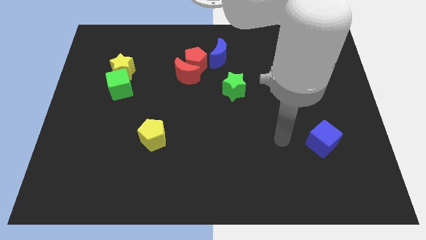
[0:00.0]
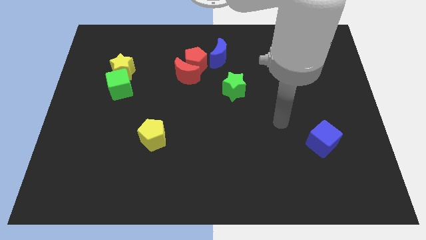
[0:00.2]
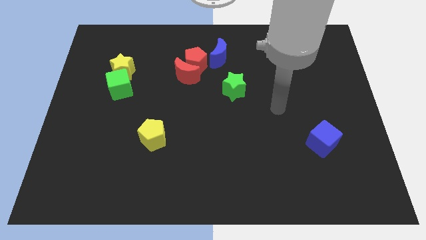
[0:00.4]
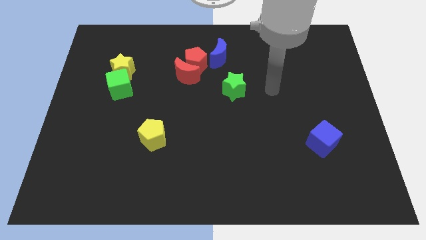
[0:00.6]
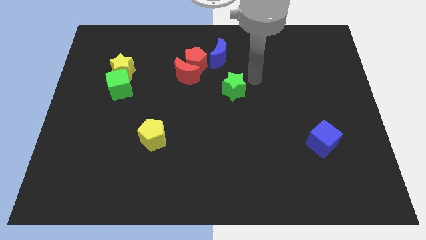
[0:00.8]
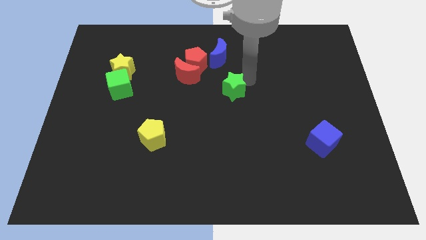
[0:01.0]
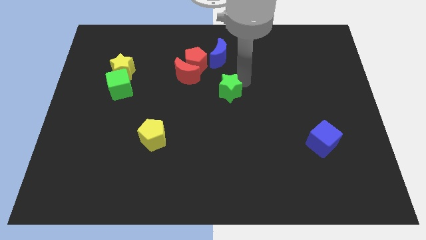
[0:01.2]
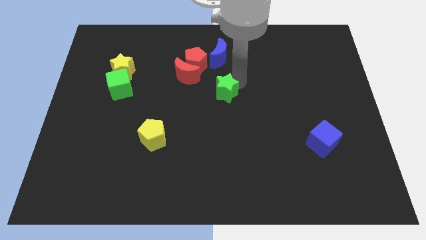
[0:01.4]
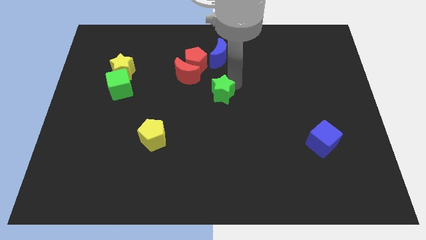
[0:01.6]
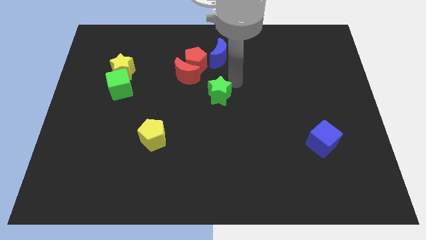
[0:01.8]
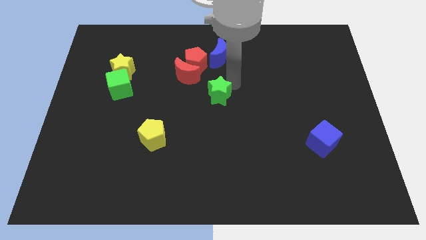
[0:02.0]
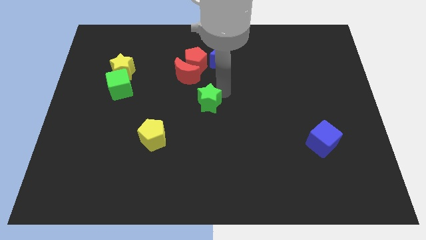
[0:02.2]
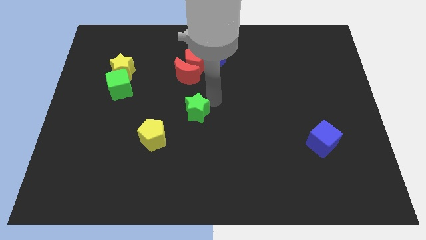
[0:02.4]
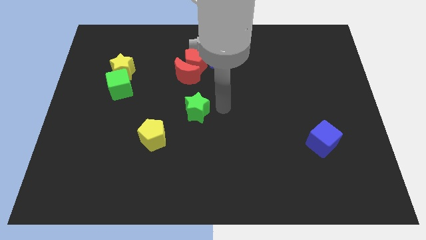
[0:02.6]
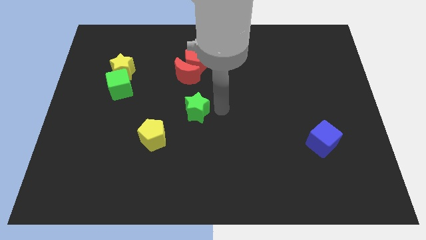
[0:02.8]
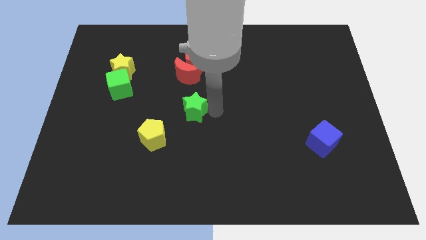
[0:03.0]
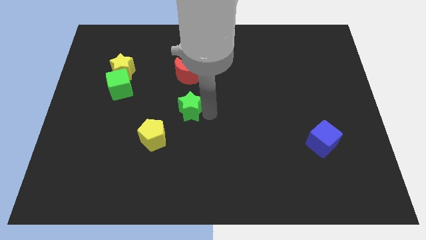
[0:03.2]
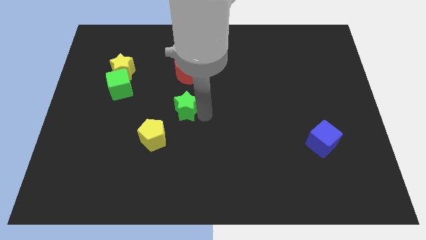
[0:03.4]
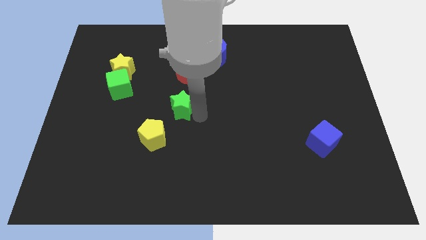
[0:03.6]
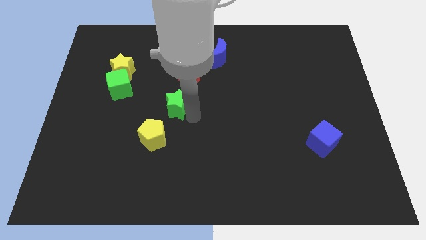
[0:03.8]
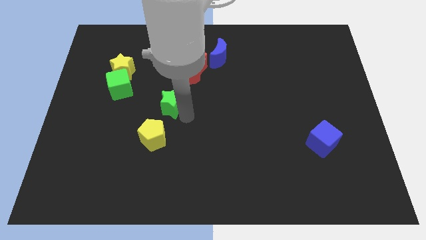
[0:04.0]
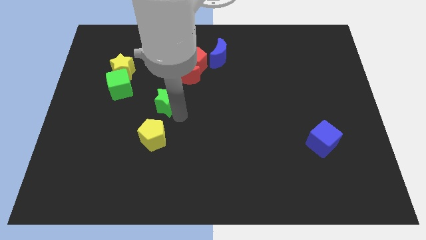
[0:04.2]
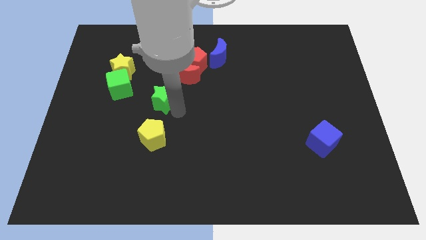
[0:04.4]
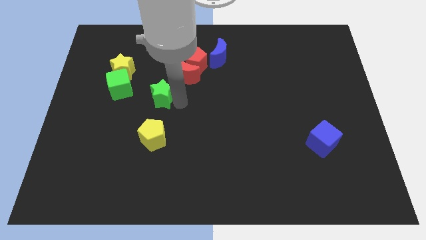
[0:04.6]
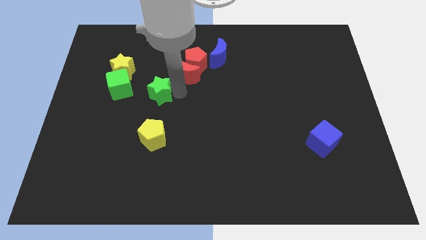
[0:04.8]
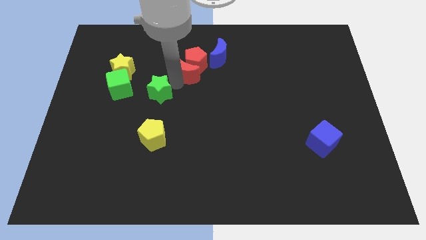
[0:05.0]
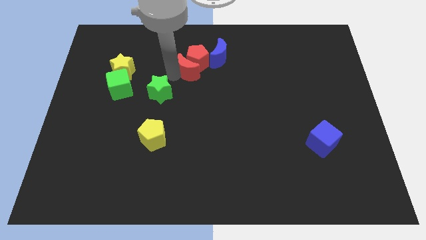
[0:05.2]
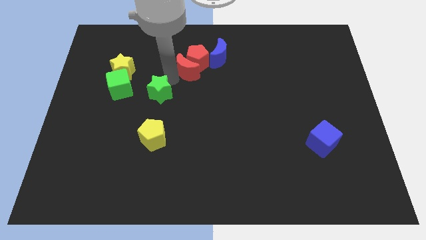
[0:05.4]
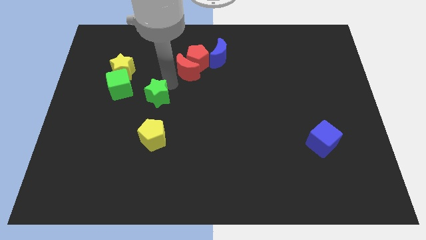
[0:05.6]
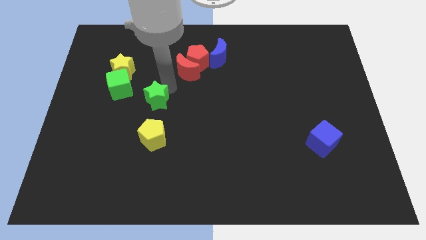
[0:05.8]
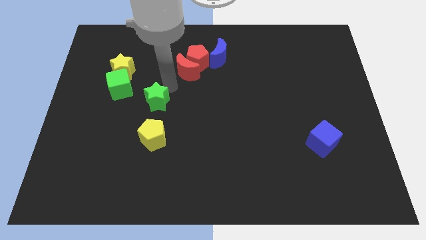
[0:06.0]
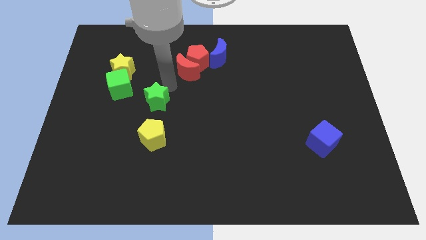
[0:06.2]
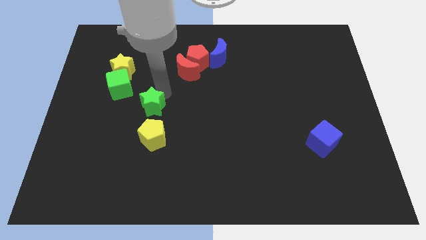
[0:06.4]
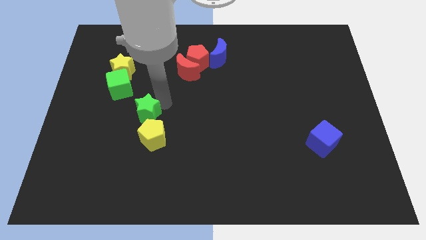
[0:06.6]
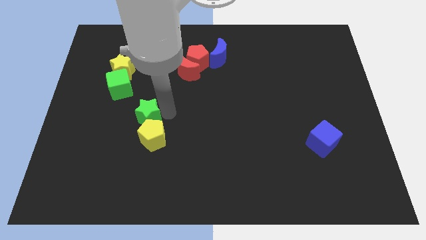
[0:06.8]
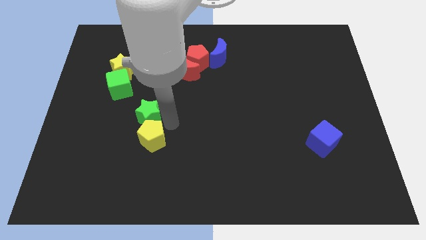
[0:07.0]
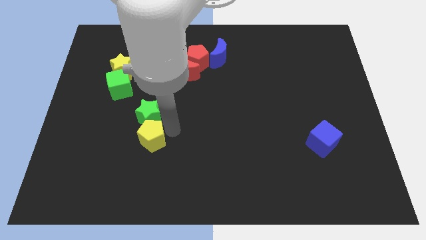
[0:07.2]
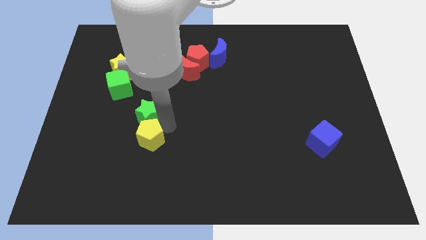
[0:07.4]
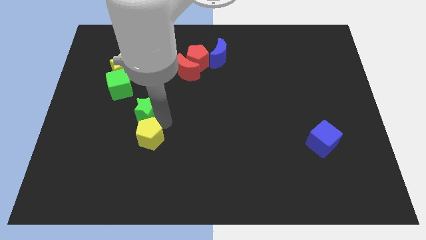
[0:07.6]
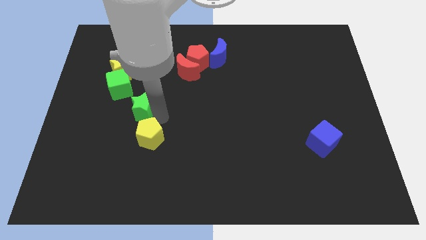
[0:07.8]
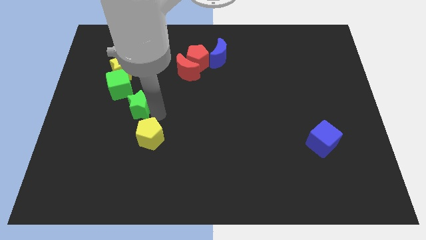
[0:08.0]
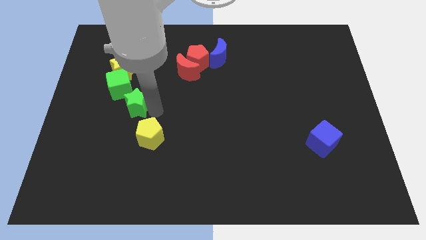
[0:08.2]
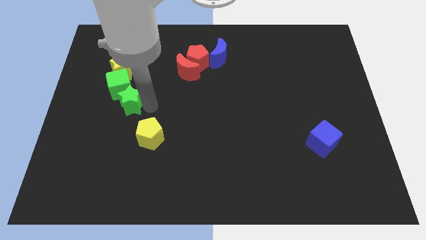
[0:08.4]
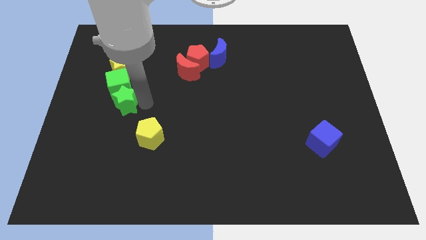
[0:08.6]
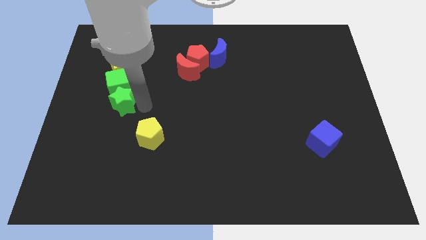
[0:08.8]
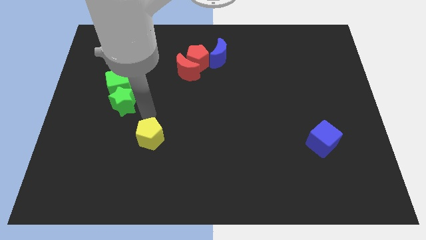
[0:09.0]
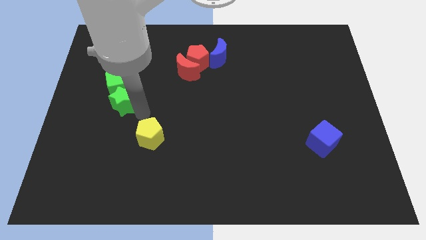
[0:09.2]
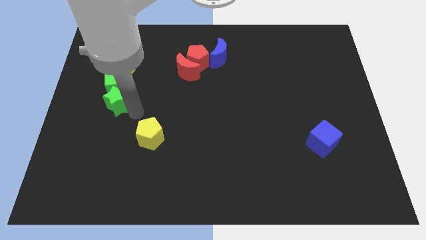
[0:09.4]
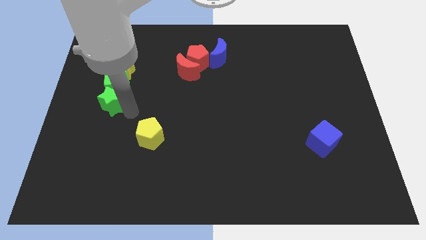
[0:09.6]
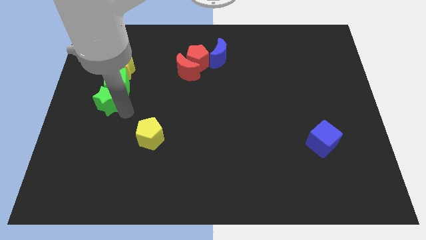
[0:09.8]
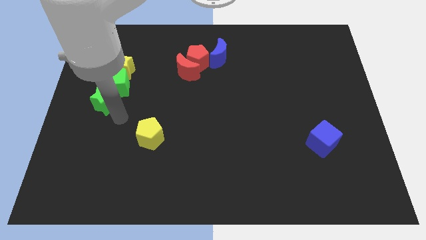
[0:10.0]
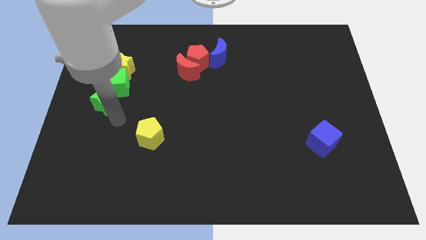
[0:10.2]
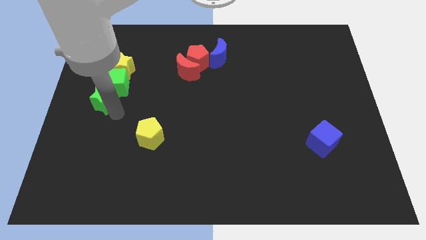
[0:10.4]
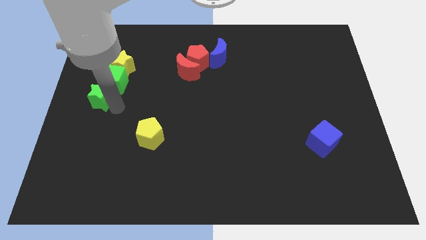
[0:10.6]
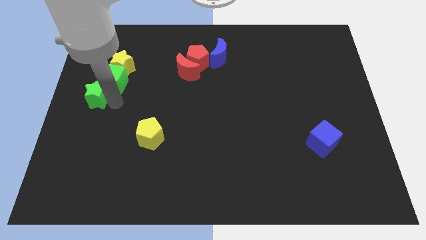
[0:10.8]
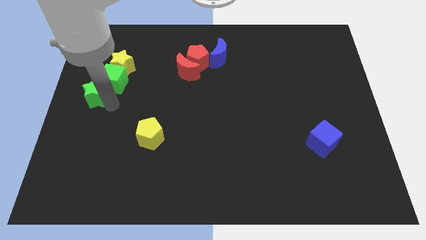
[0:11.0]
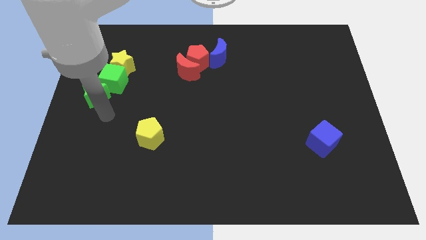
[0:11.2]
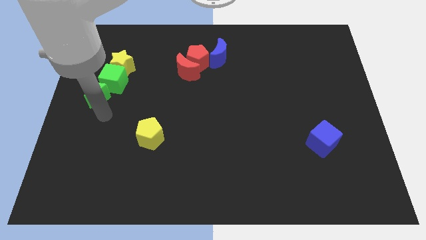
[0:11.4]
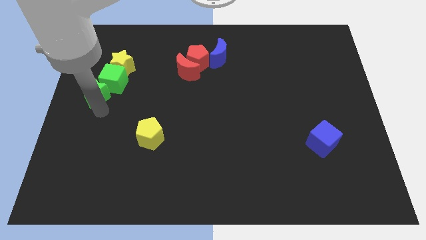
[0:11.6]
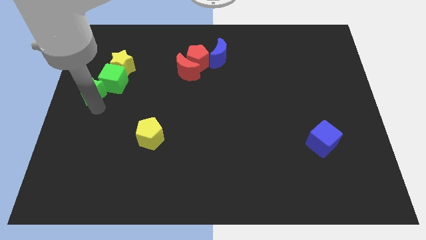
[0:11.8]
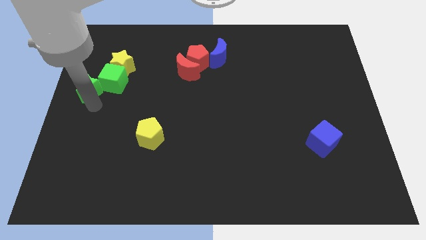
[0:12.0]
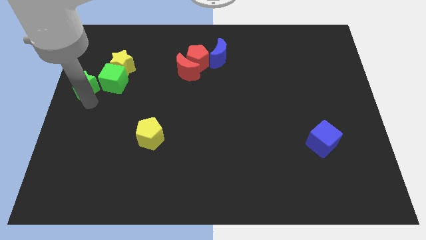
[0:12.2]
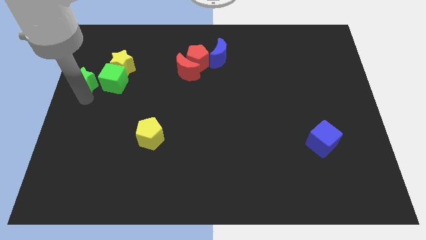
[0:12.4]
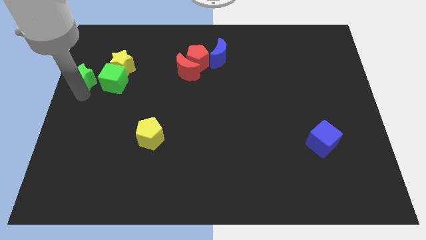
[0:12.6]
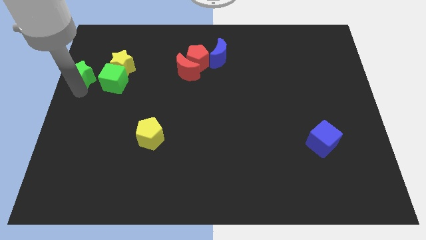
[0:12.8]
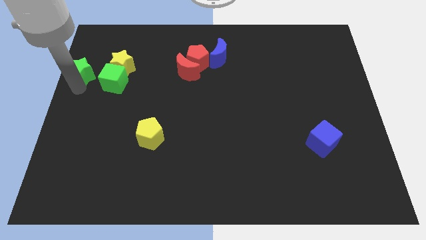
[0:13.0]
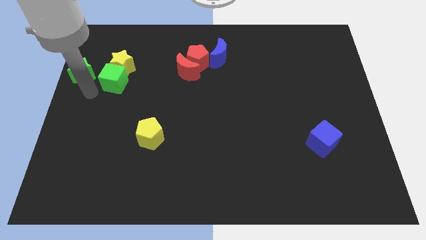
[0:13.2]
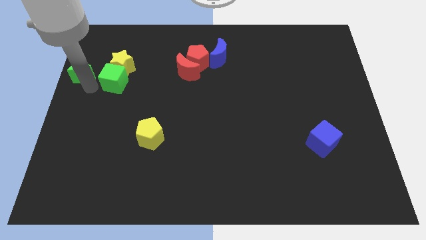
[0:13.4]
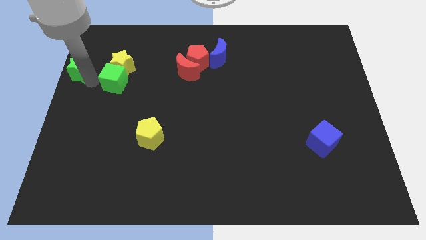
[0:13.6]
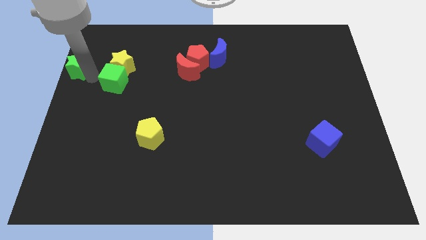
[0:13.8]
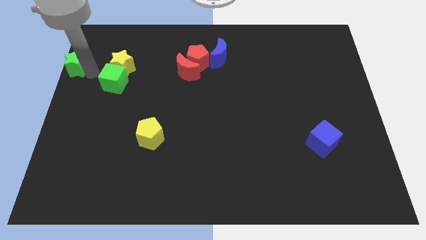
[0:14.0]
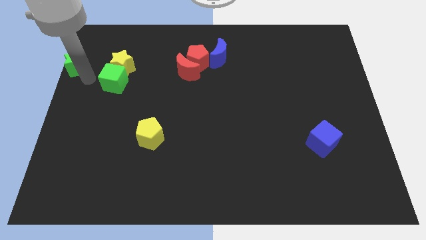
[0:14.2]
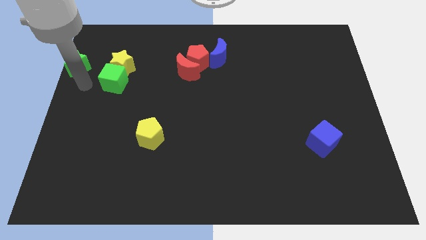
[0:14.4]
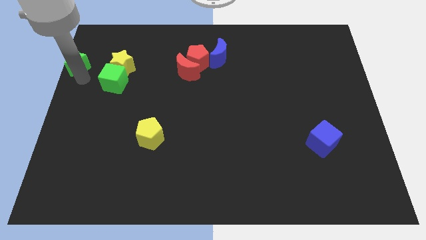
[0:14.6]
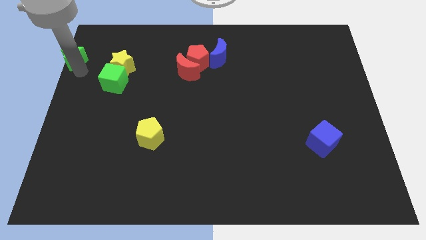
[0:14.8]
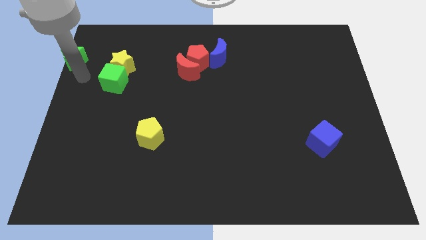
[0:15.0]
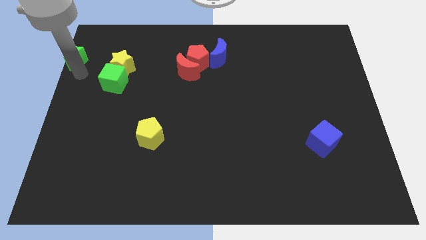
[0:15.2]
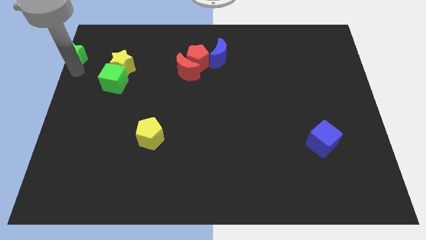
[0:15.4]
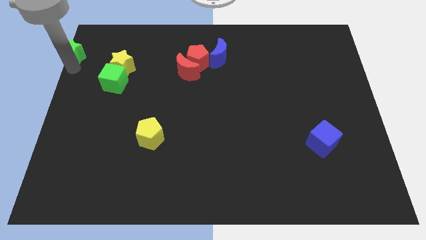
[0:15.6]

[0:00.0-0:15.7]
put the green star to the top left
